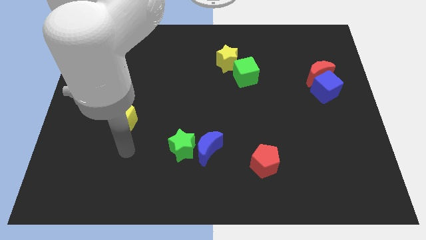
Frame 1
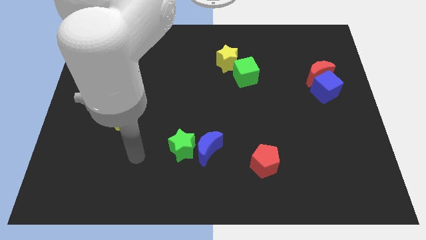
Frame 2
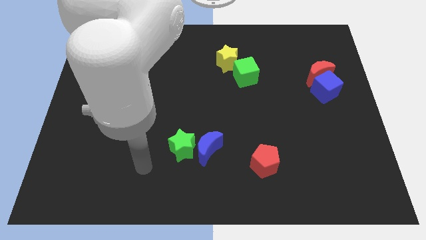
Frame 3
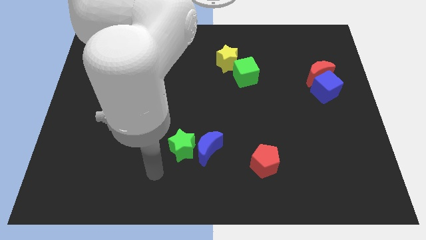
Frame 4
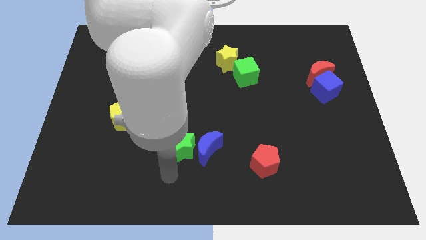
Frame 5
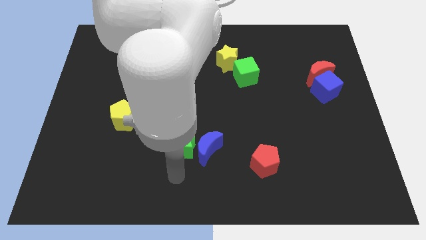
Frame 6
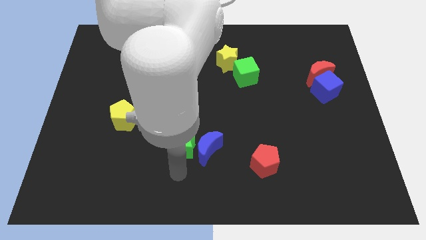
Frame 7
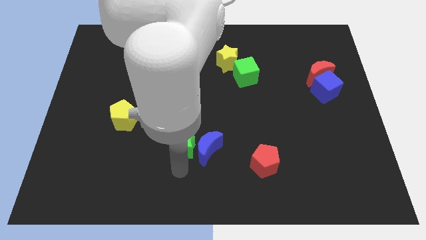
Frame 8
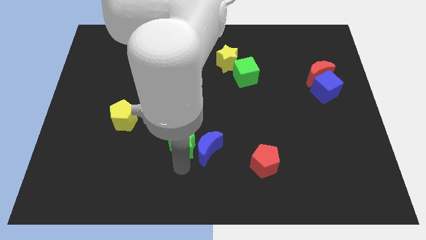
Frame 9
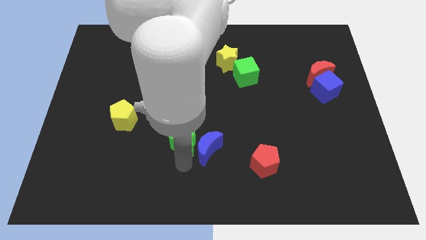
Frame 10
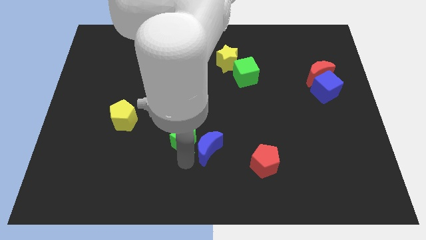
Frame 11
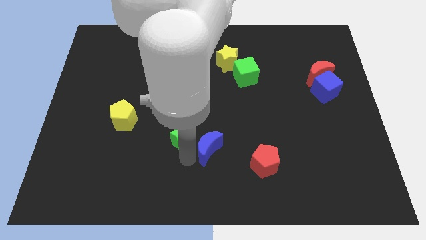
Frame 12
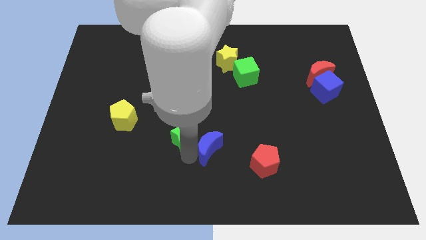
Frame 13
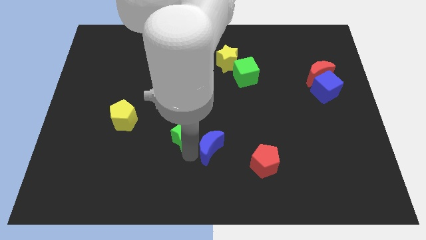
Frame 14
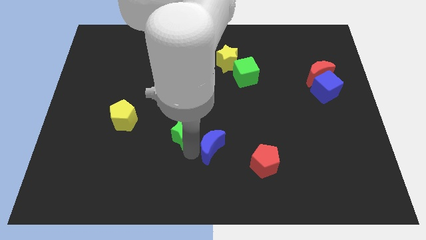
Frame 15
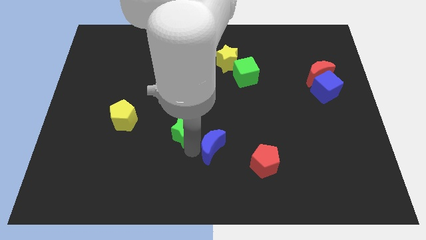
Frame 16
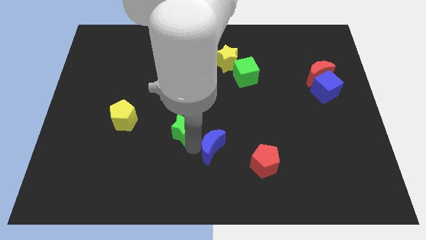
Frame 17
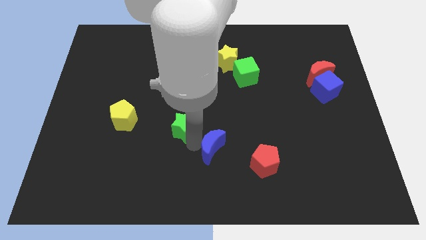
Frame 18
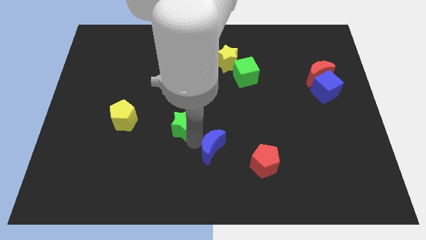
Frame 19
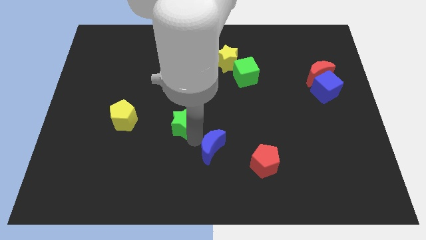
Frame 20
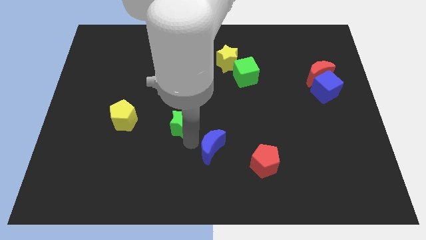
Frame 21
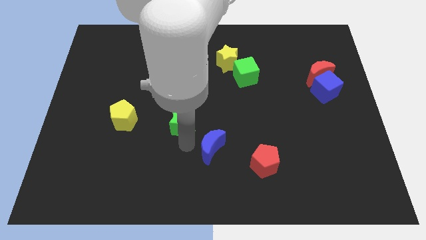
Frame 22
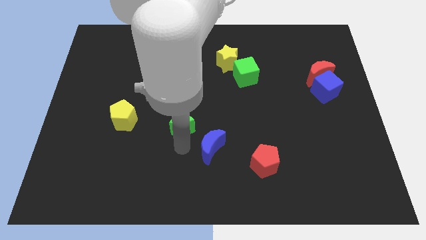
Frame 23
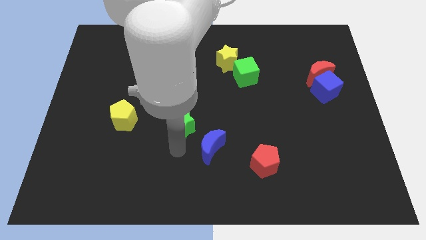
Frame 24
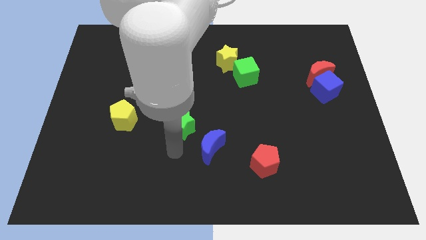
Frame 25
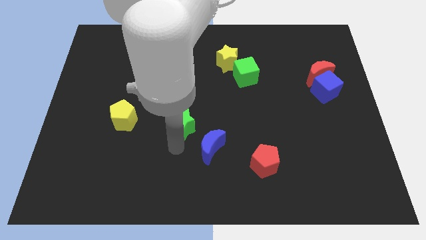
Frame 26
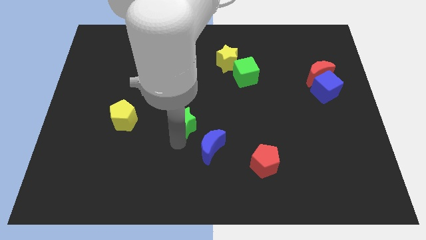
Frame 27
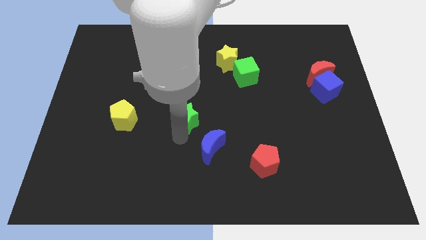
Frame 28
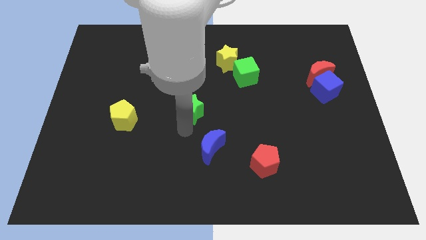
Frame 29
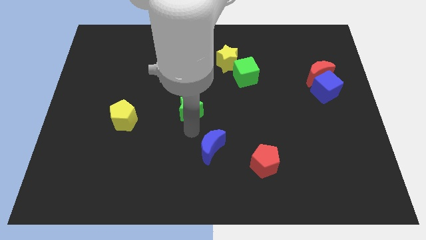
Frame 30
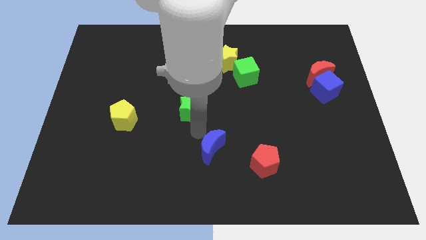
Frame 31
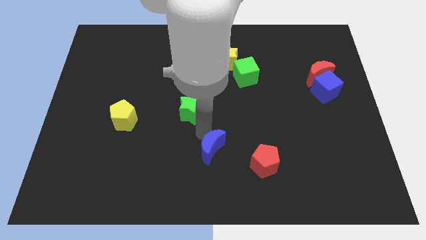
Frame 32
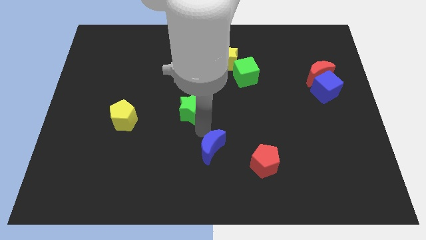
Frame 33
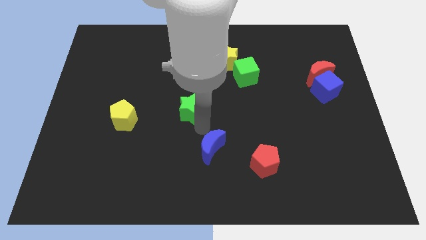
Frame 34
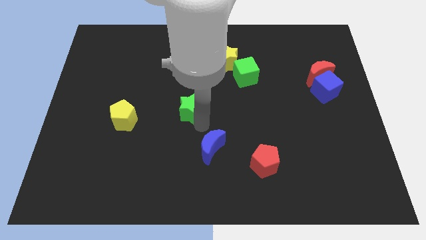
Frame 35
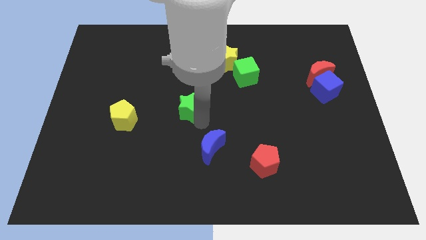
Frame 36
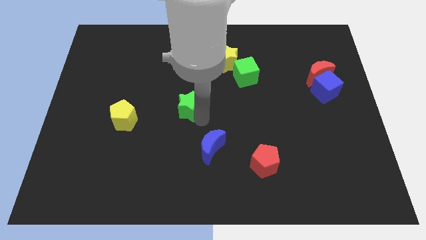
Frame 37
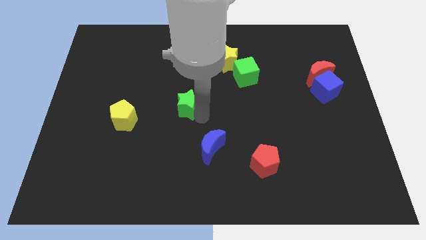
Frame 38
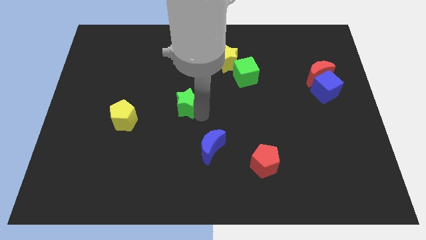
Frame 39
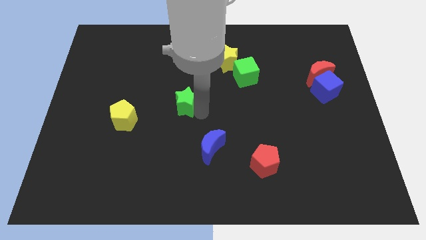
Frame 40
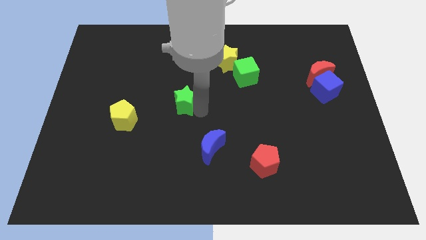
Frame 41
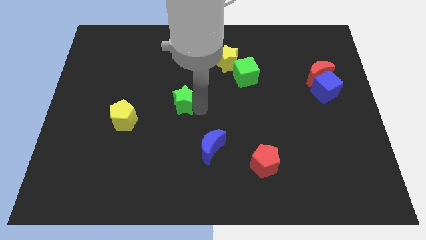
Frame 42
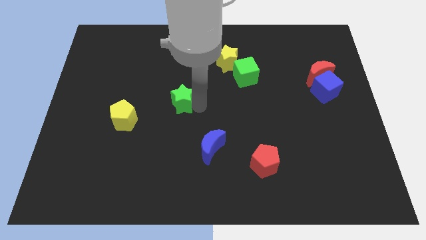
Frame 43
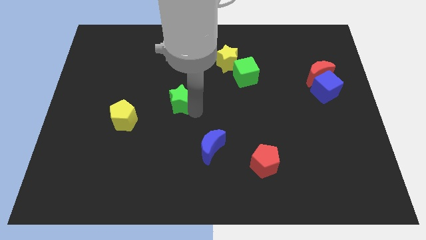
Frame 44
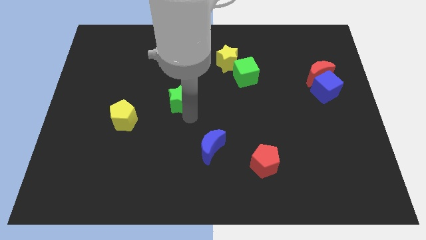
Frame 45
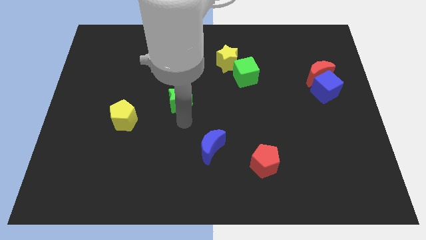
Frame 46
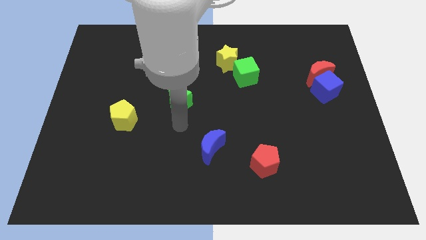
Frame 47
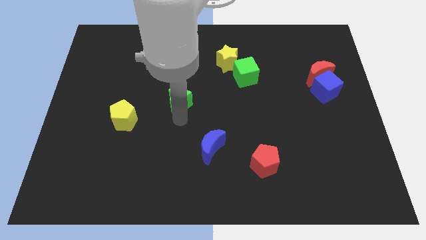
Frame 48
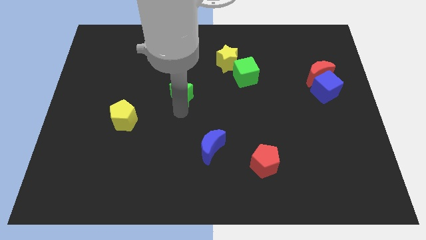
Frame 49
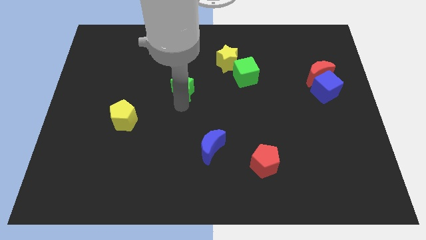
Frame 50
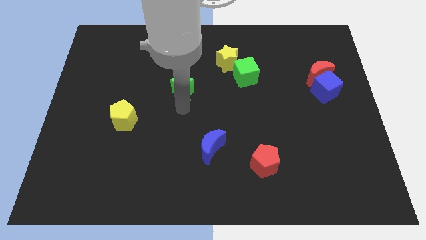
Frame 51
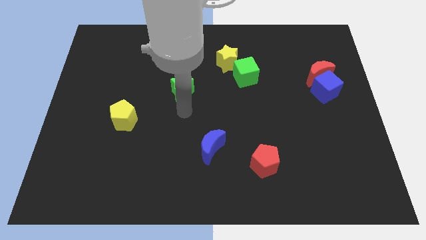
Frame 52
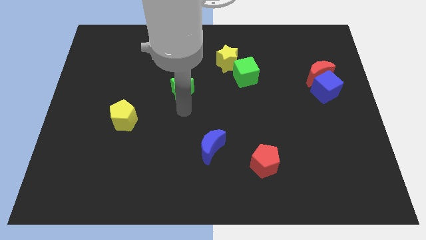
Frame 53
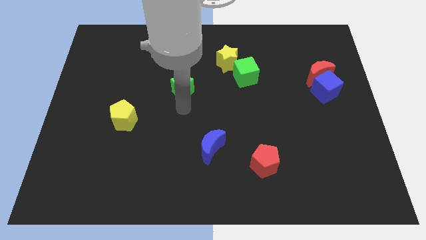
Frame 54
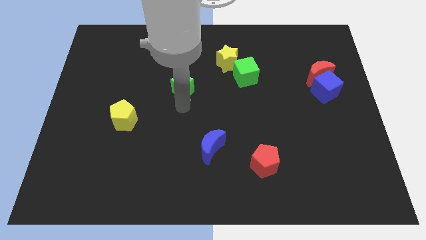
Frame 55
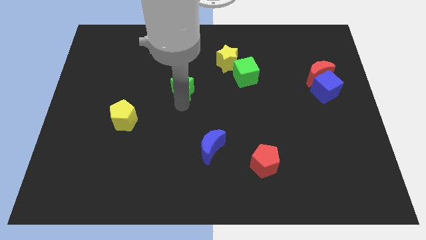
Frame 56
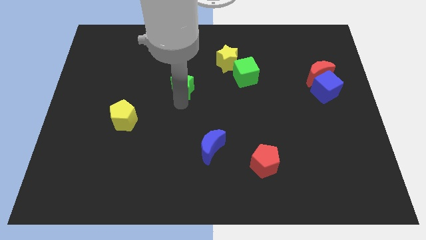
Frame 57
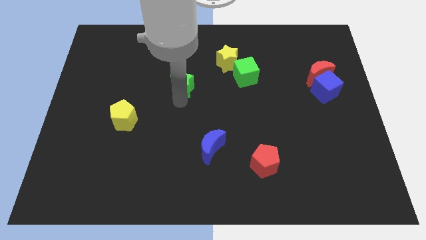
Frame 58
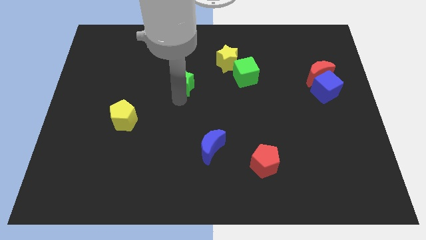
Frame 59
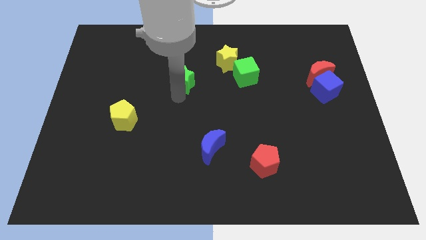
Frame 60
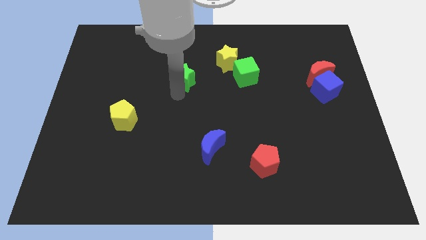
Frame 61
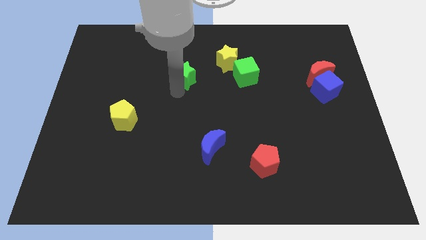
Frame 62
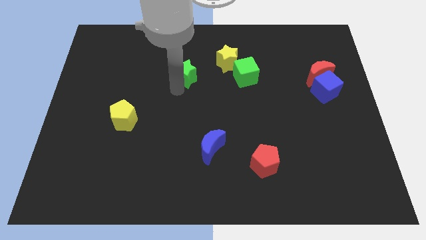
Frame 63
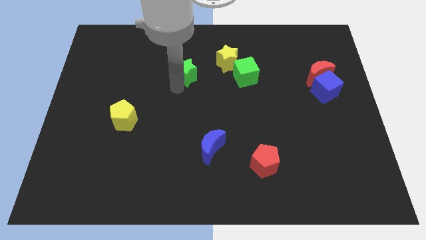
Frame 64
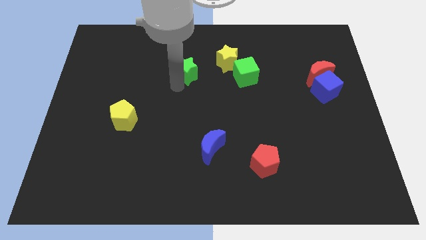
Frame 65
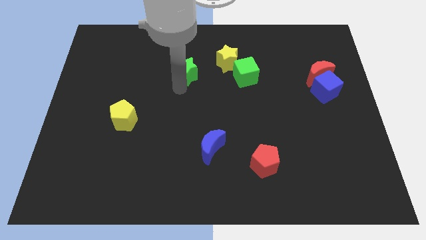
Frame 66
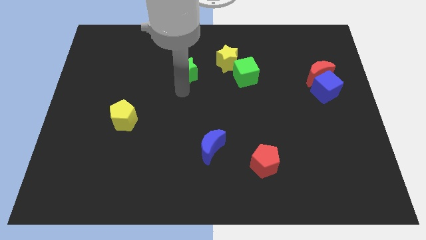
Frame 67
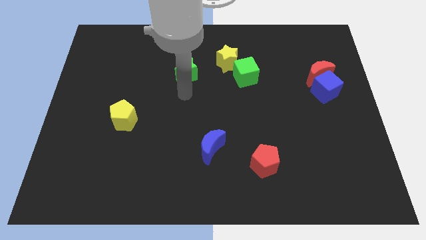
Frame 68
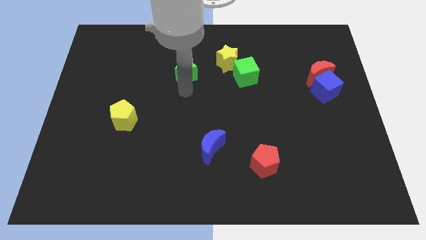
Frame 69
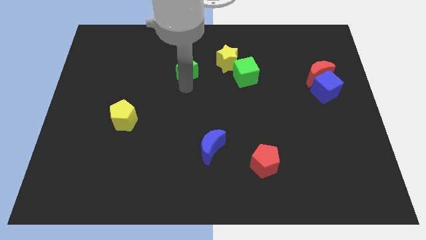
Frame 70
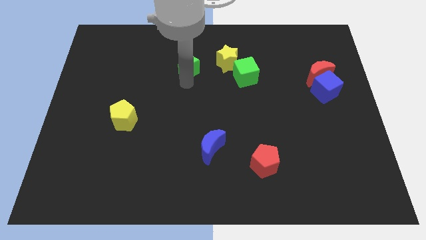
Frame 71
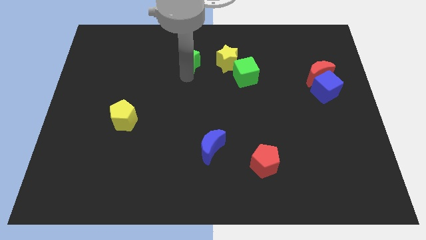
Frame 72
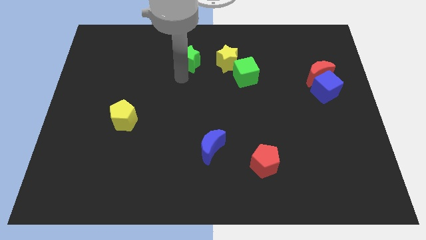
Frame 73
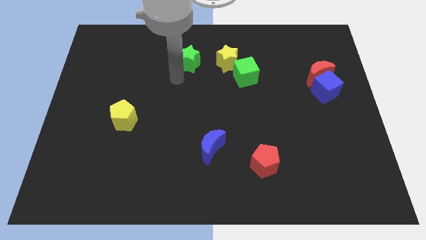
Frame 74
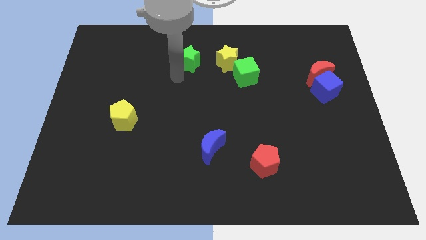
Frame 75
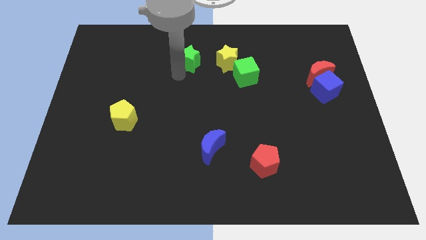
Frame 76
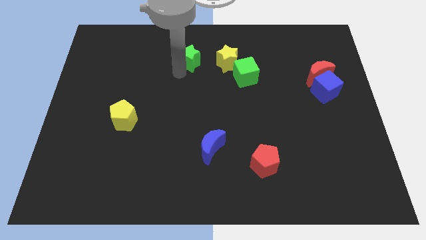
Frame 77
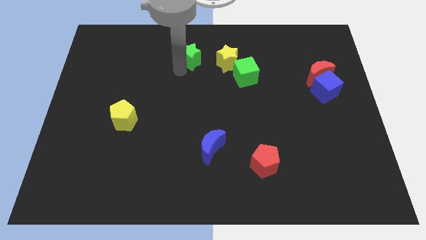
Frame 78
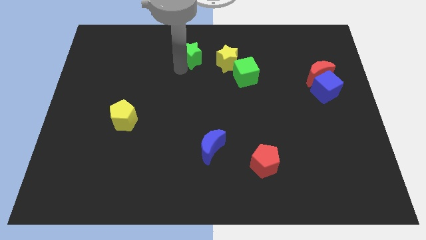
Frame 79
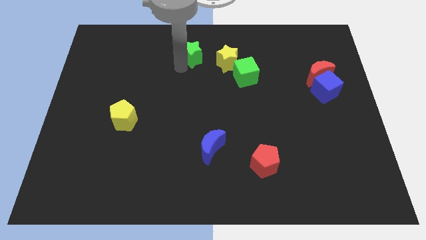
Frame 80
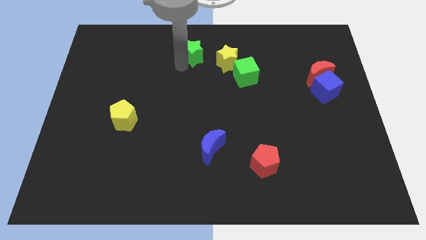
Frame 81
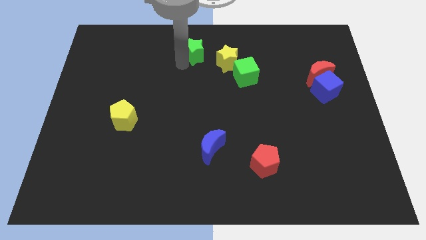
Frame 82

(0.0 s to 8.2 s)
push the green star to the top side
